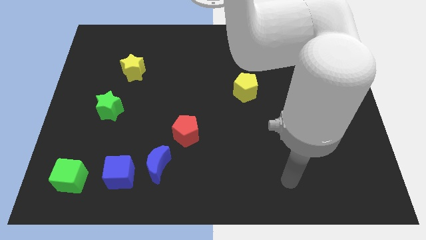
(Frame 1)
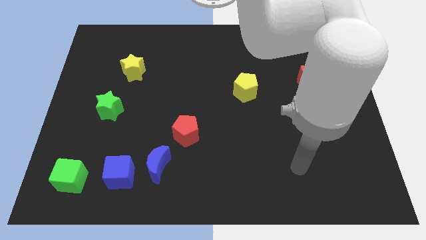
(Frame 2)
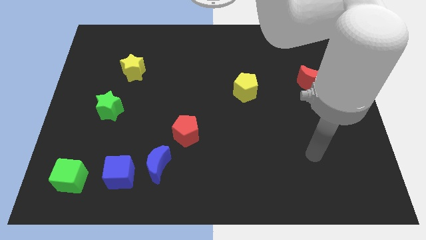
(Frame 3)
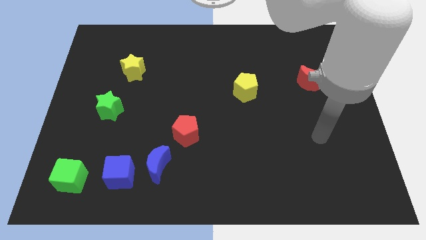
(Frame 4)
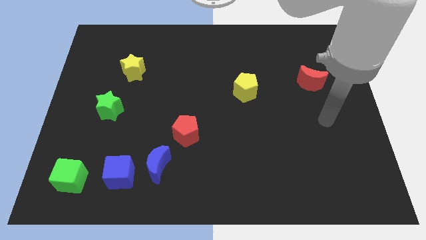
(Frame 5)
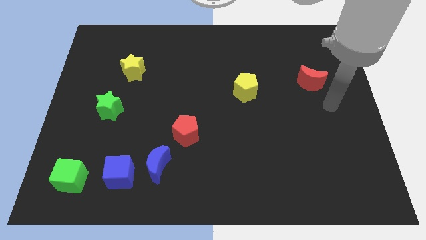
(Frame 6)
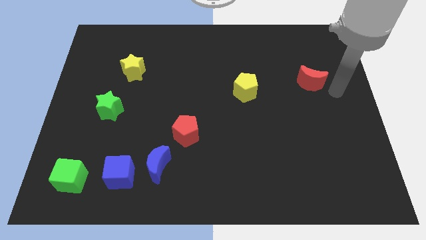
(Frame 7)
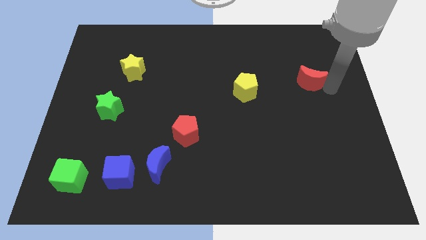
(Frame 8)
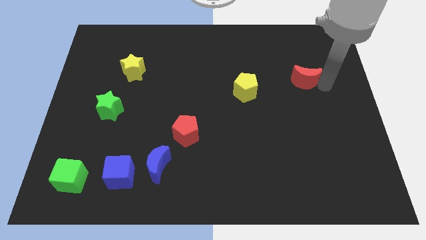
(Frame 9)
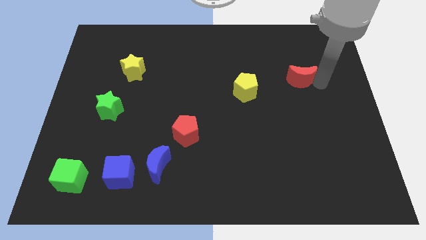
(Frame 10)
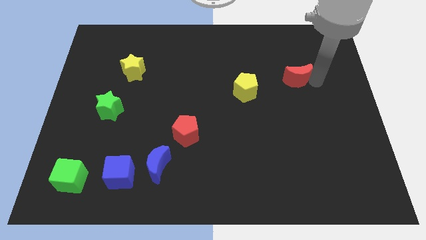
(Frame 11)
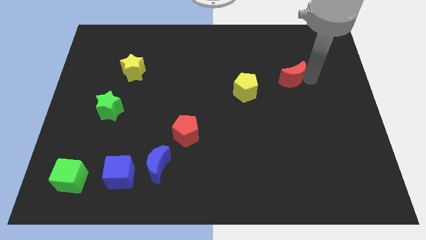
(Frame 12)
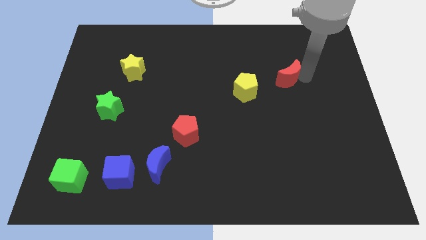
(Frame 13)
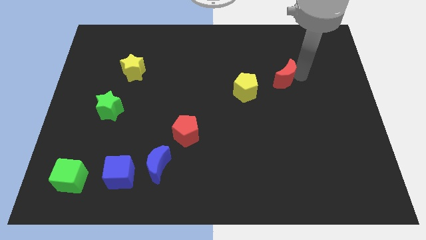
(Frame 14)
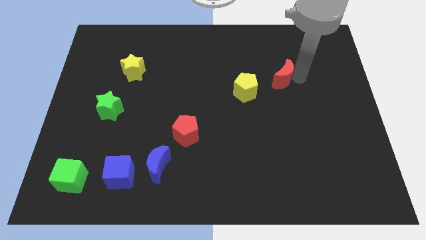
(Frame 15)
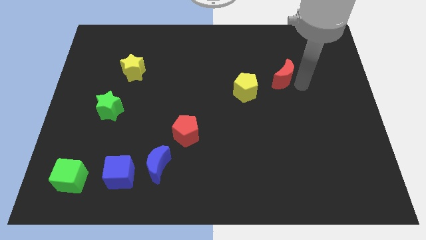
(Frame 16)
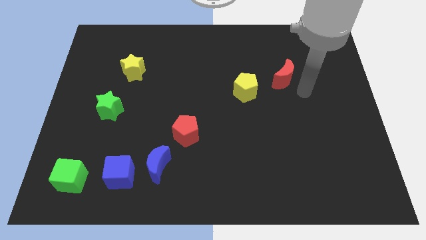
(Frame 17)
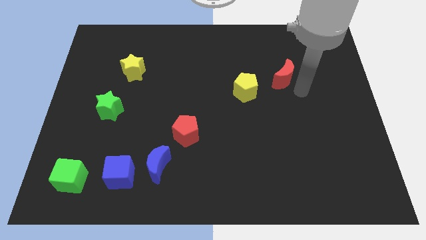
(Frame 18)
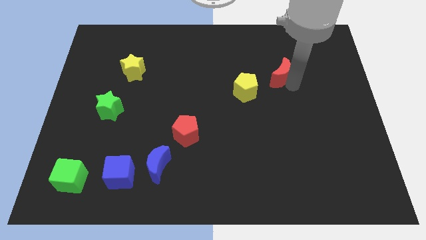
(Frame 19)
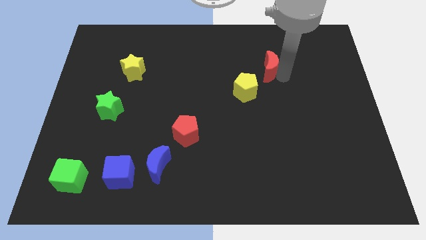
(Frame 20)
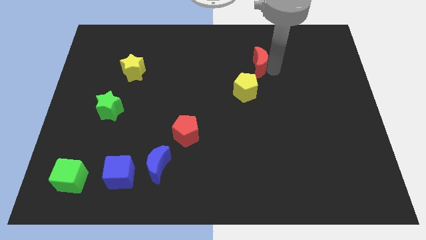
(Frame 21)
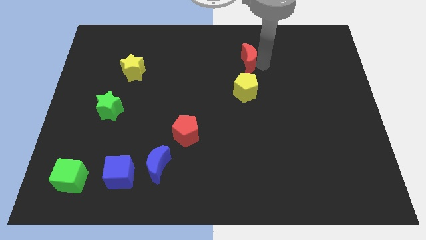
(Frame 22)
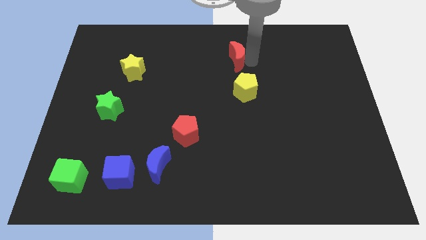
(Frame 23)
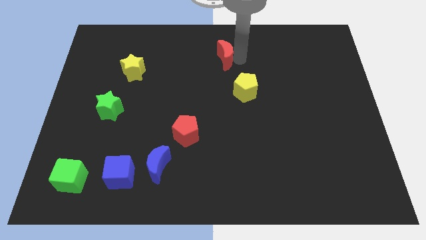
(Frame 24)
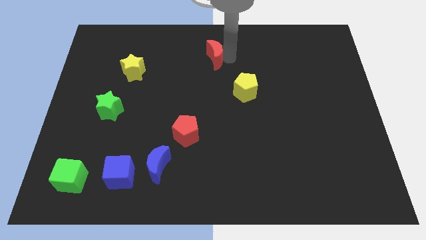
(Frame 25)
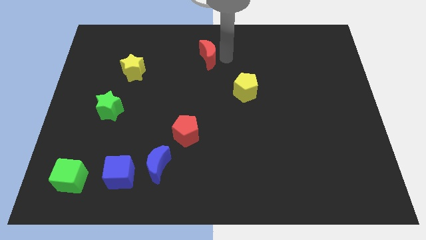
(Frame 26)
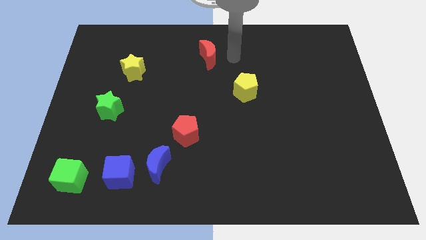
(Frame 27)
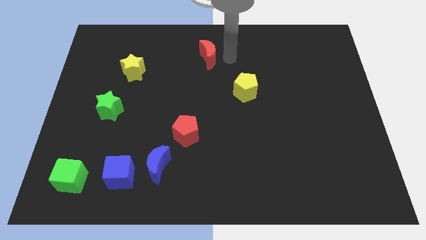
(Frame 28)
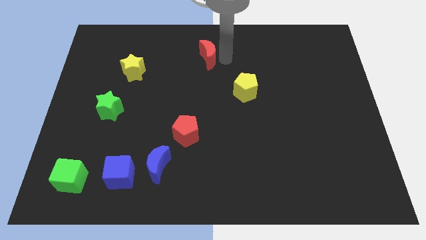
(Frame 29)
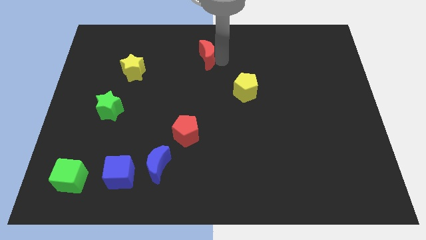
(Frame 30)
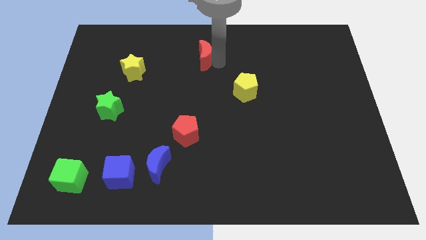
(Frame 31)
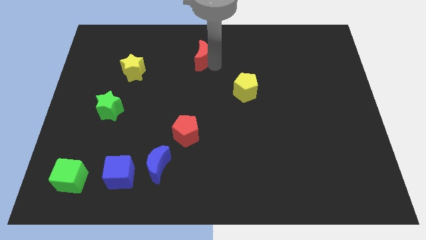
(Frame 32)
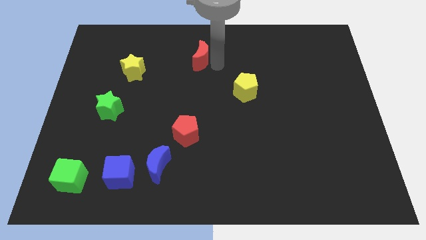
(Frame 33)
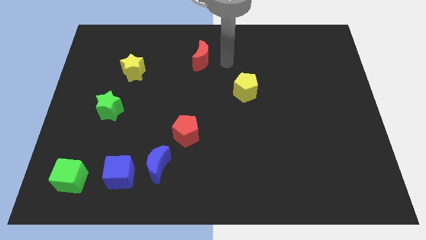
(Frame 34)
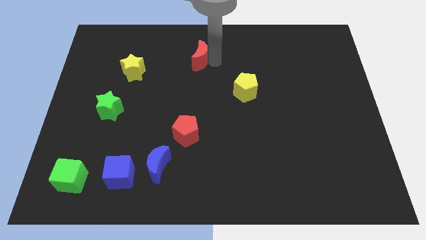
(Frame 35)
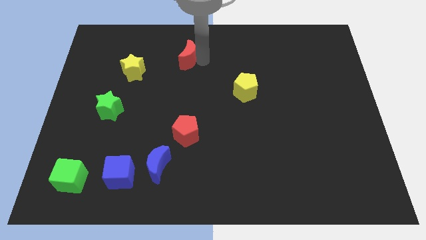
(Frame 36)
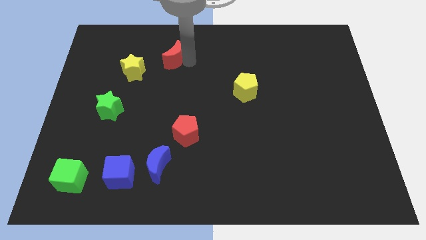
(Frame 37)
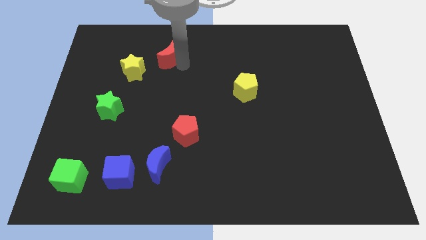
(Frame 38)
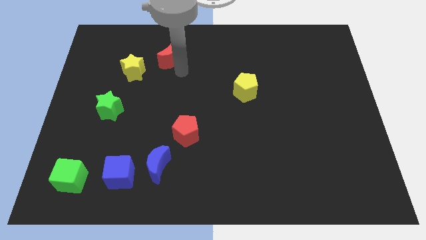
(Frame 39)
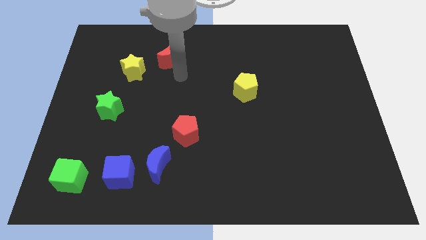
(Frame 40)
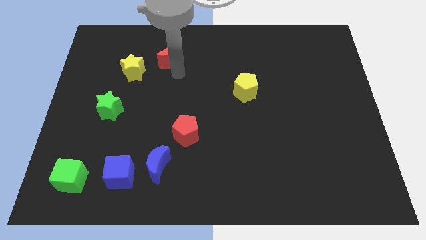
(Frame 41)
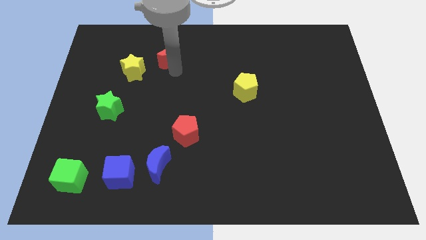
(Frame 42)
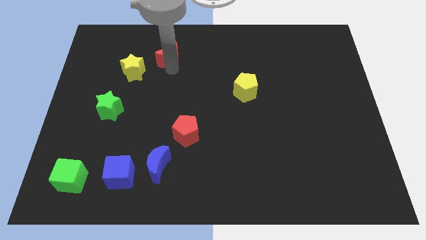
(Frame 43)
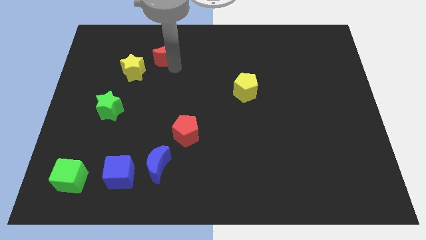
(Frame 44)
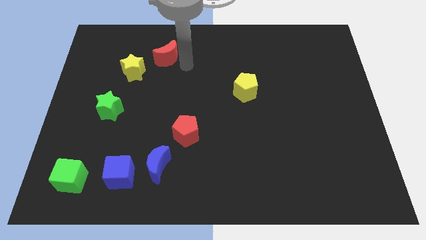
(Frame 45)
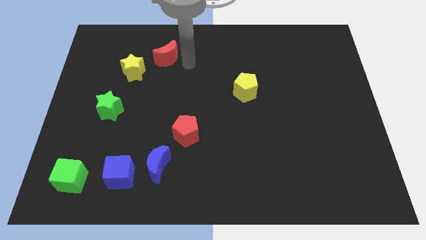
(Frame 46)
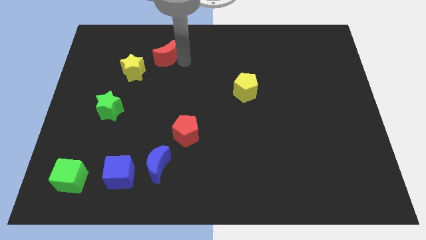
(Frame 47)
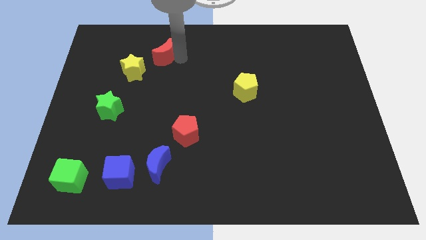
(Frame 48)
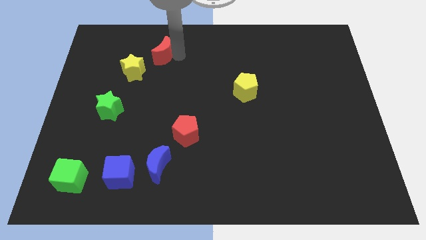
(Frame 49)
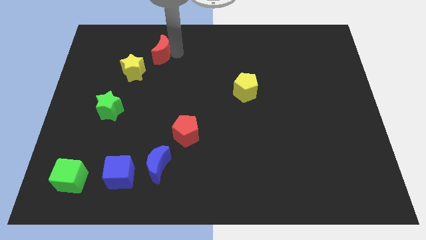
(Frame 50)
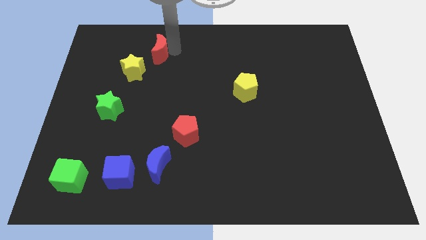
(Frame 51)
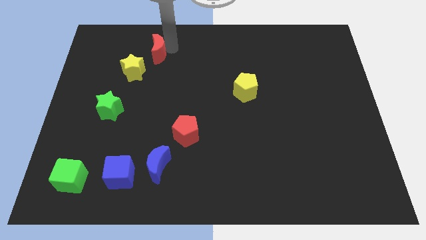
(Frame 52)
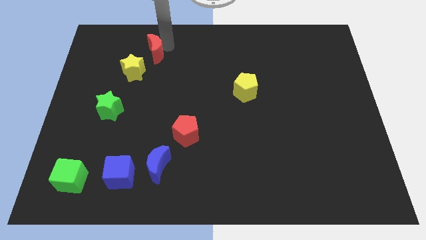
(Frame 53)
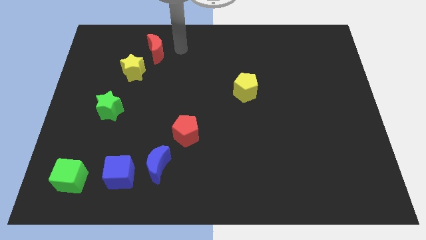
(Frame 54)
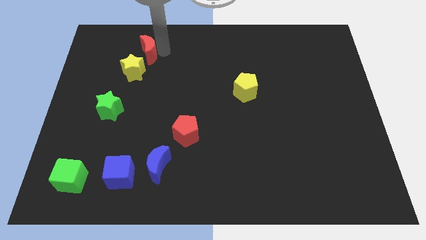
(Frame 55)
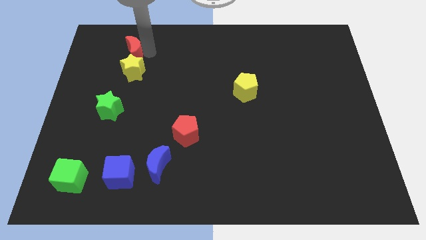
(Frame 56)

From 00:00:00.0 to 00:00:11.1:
slide the red moon diagonally up and to the left of the yellow star
